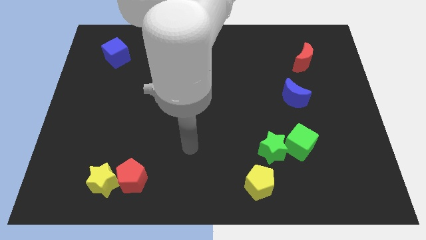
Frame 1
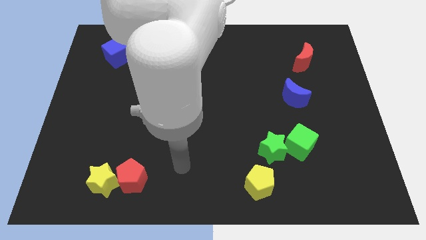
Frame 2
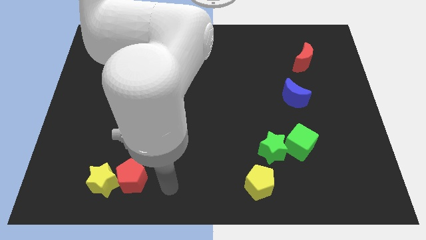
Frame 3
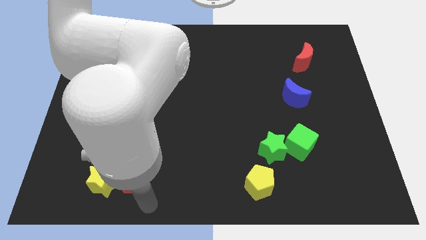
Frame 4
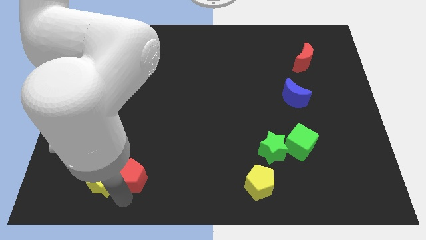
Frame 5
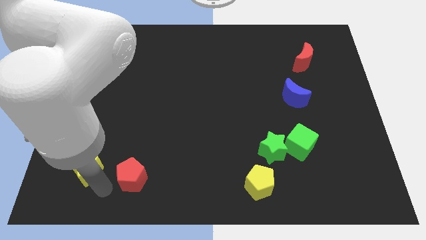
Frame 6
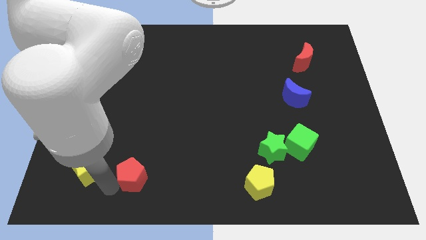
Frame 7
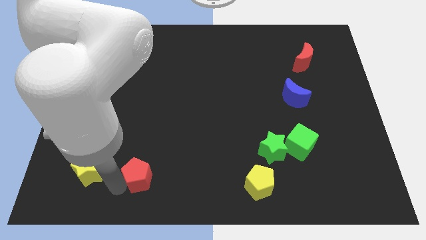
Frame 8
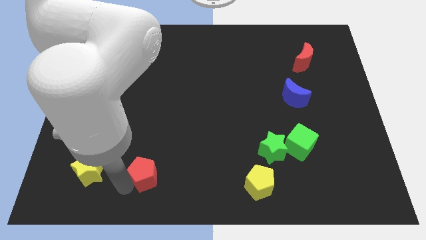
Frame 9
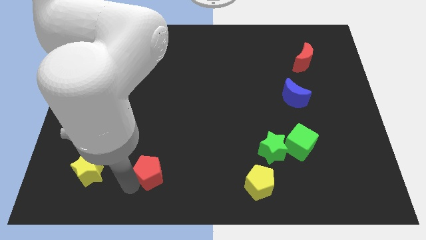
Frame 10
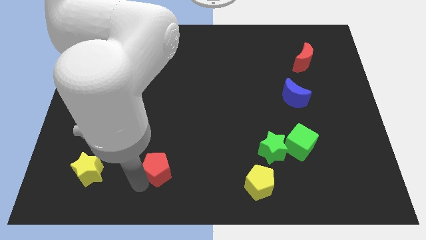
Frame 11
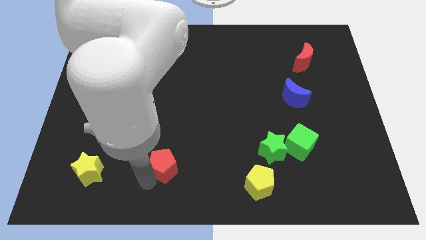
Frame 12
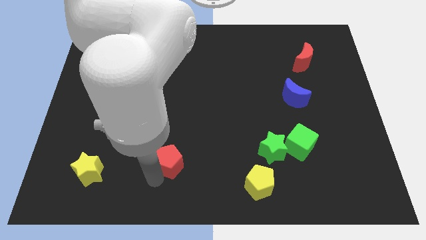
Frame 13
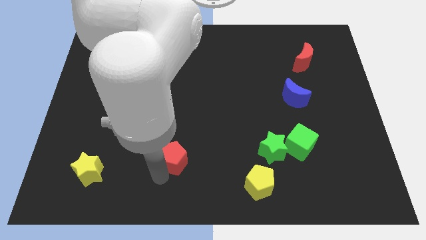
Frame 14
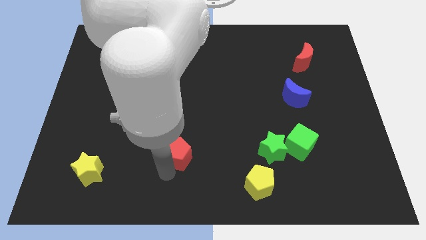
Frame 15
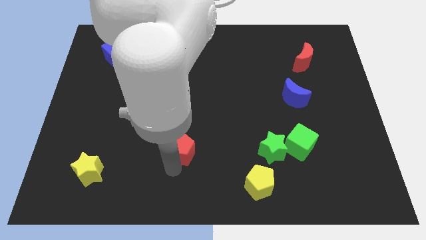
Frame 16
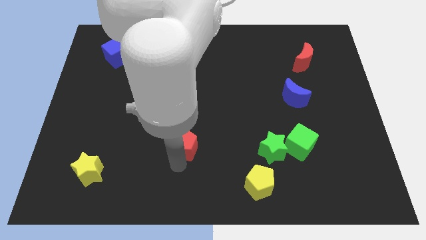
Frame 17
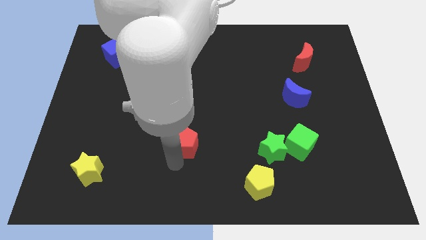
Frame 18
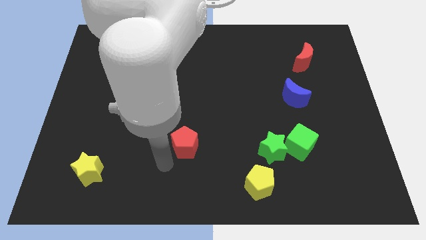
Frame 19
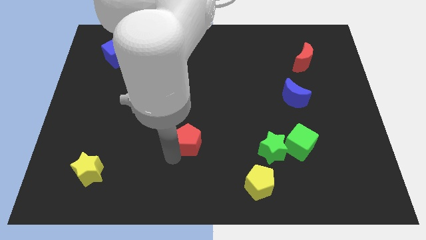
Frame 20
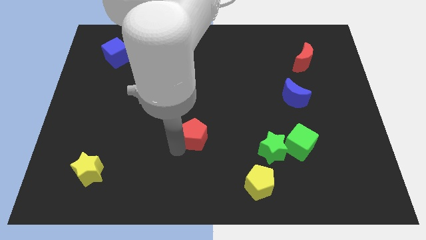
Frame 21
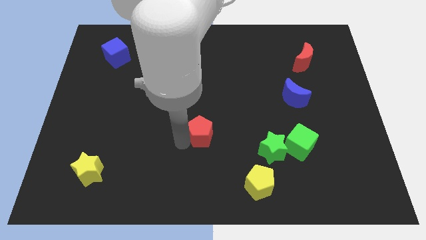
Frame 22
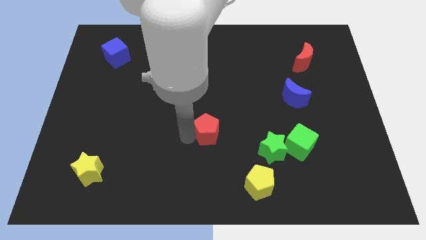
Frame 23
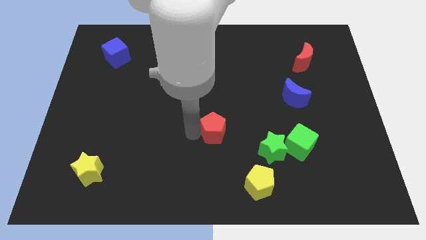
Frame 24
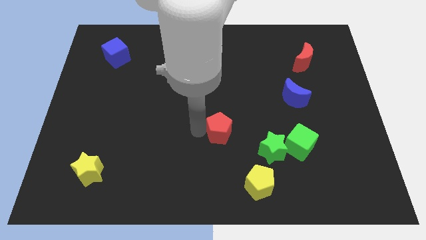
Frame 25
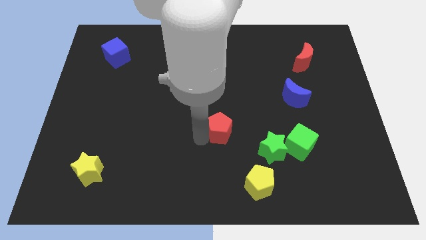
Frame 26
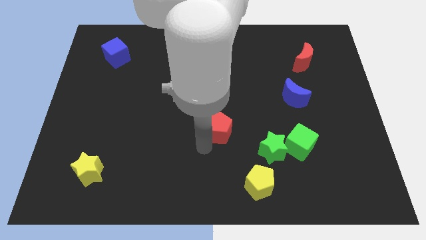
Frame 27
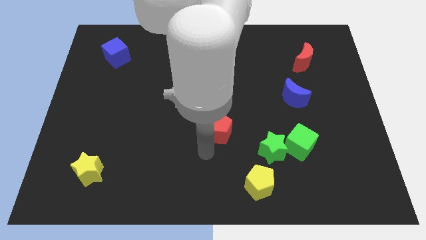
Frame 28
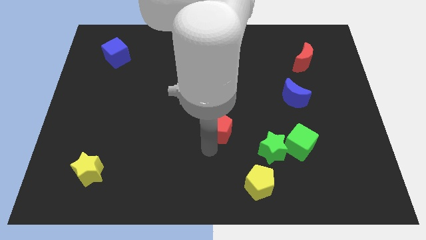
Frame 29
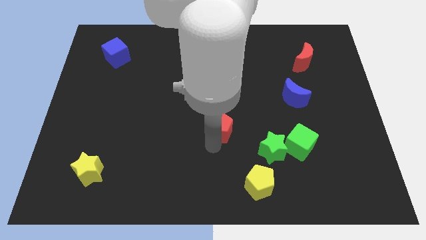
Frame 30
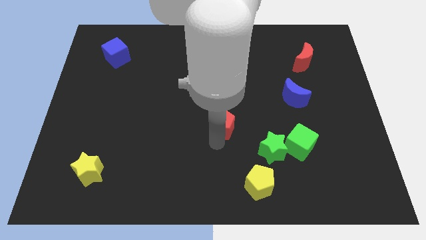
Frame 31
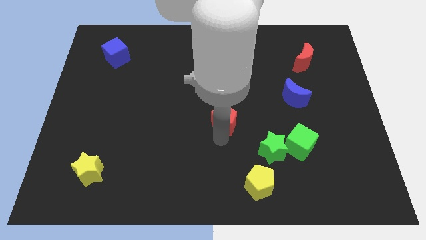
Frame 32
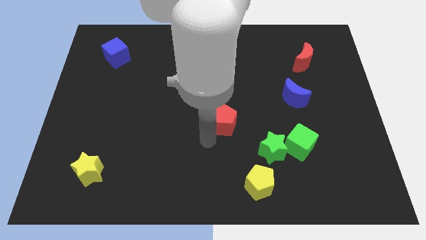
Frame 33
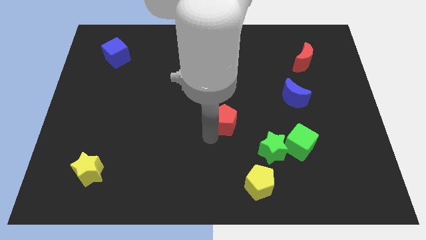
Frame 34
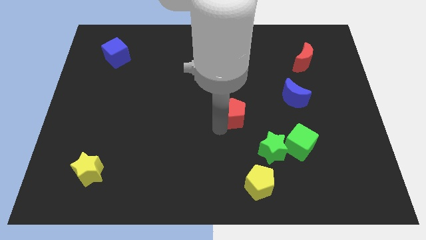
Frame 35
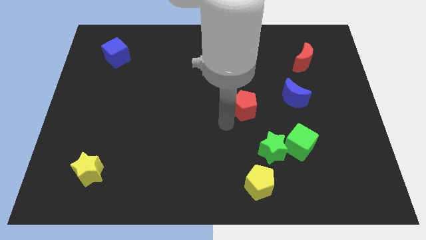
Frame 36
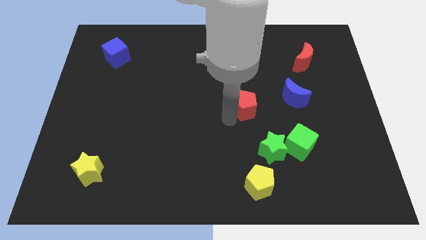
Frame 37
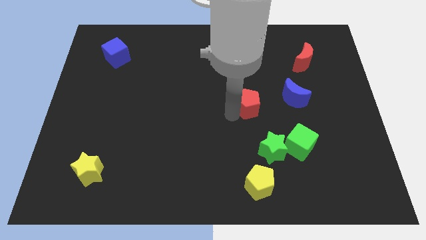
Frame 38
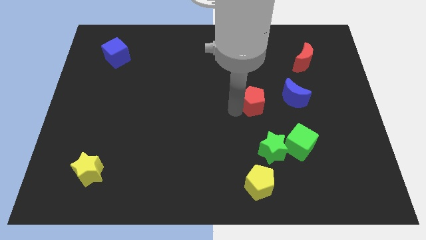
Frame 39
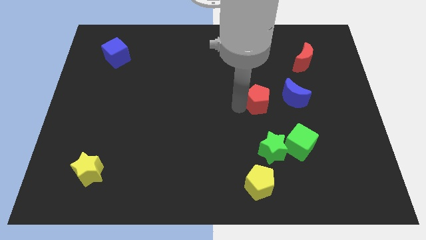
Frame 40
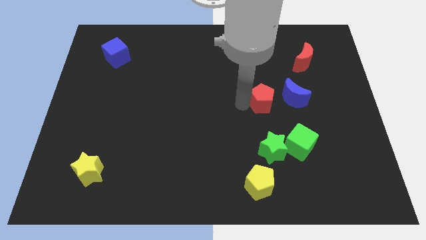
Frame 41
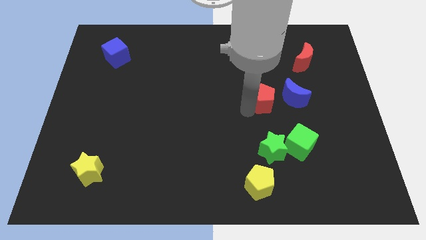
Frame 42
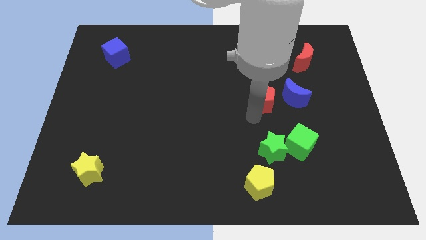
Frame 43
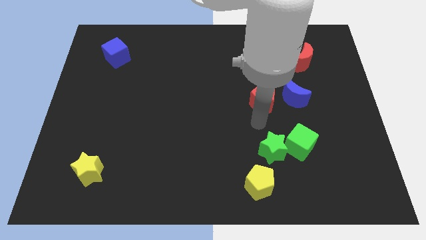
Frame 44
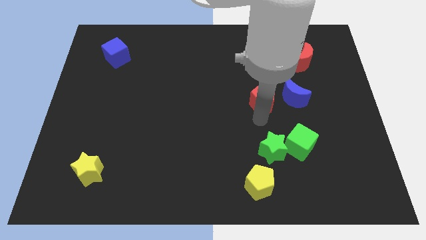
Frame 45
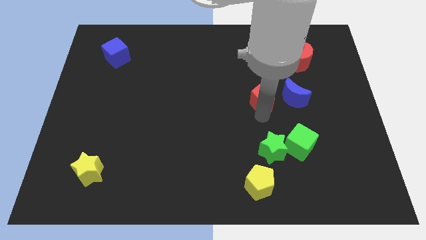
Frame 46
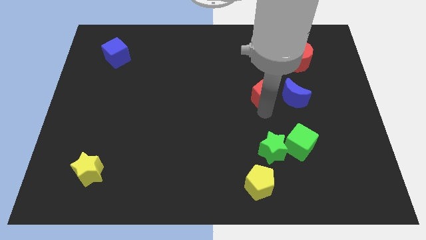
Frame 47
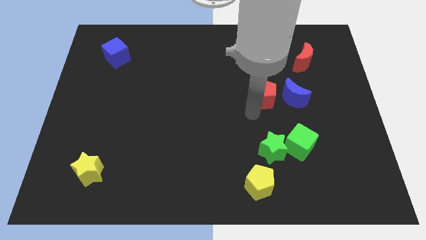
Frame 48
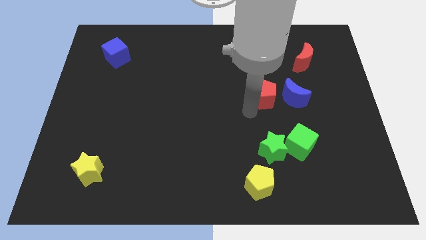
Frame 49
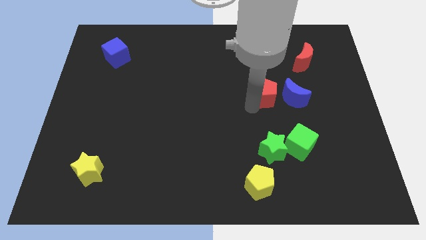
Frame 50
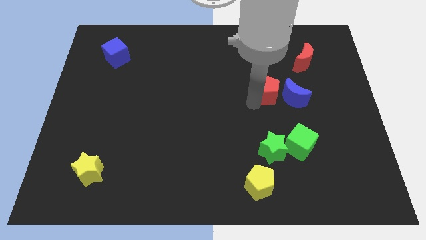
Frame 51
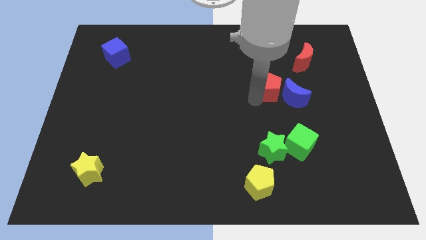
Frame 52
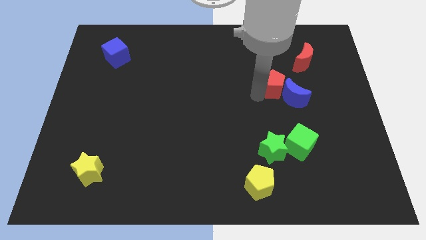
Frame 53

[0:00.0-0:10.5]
slide the red pentagon to the bottom left side of the red moon
